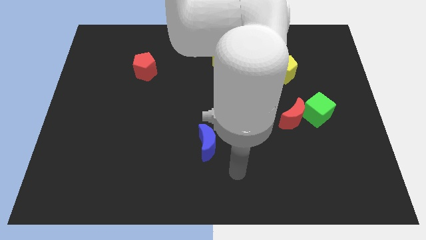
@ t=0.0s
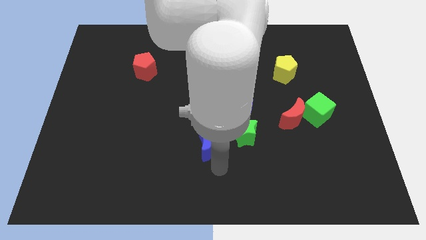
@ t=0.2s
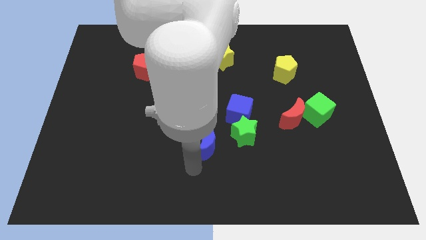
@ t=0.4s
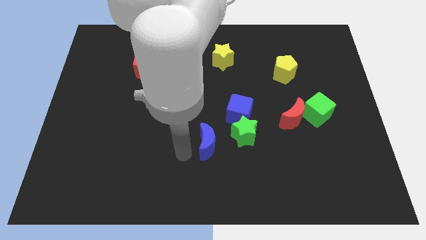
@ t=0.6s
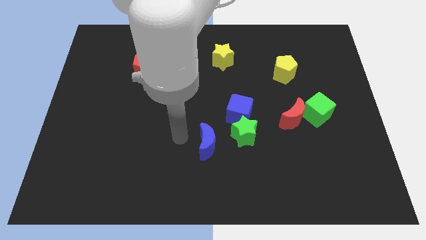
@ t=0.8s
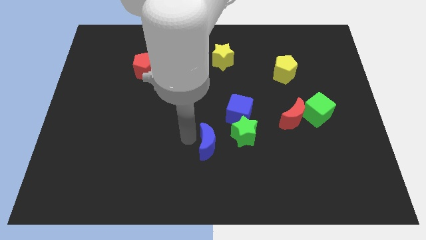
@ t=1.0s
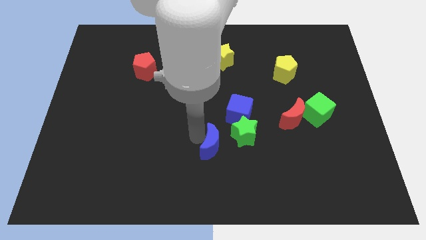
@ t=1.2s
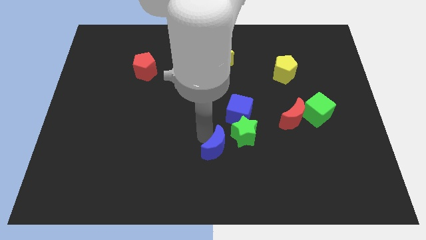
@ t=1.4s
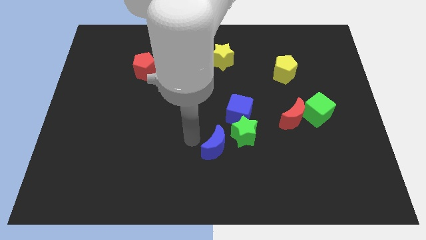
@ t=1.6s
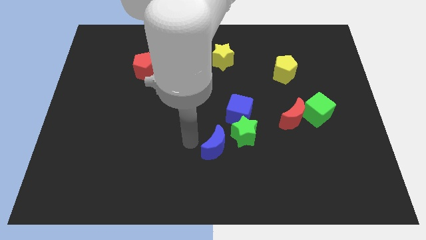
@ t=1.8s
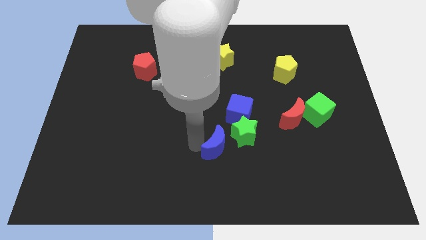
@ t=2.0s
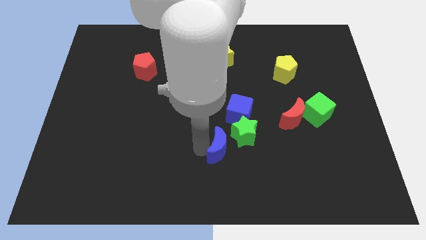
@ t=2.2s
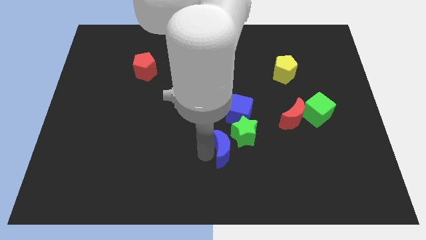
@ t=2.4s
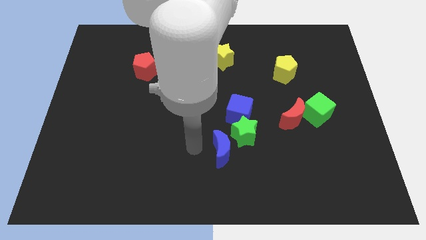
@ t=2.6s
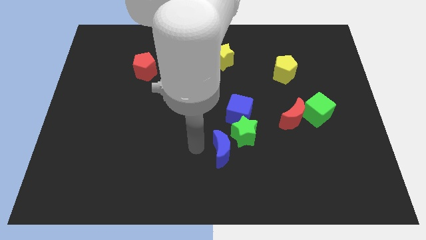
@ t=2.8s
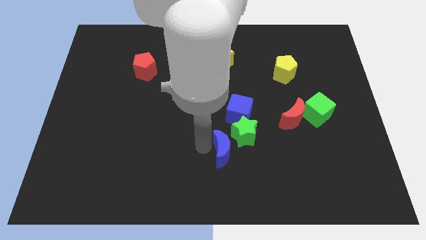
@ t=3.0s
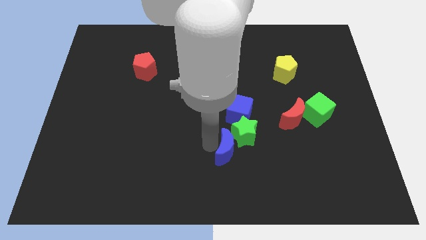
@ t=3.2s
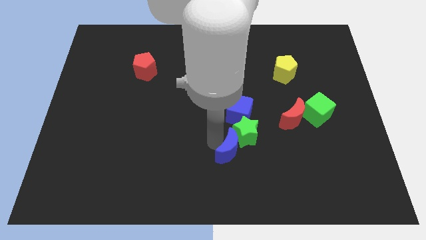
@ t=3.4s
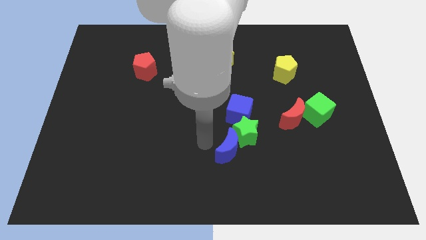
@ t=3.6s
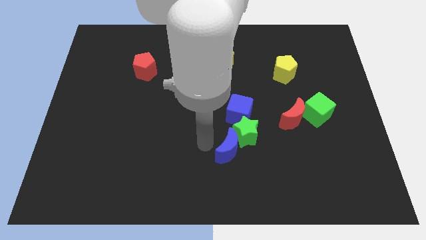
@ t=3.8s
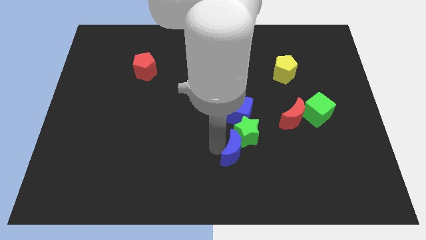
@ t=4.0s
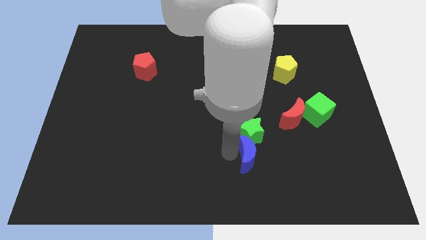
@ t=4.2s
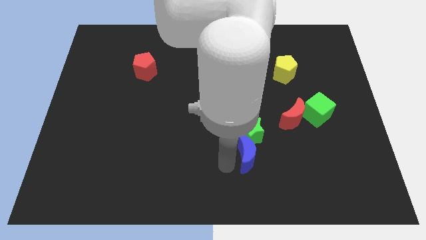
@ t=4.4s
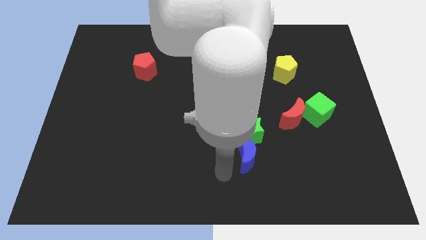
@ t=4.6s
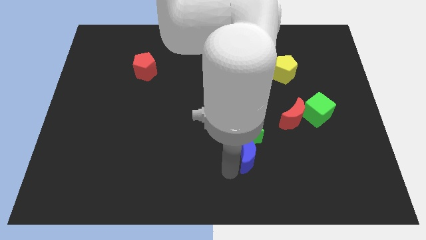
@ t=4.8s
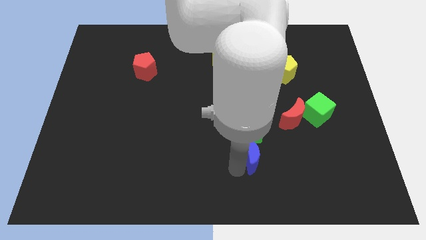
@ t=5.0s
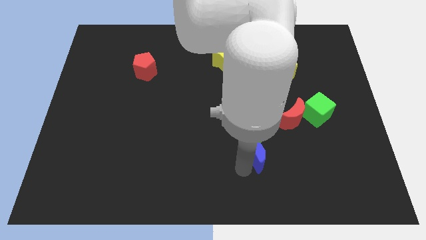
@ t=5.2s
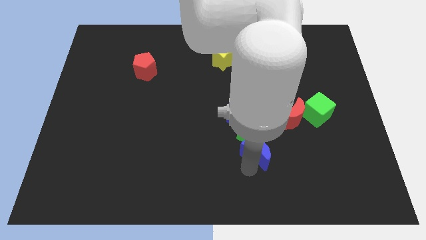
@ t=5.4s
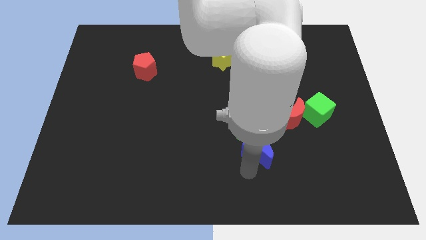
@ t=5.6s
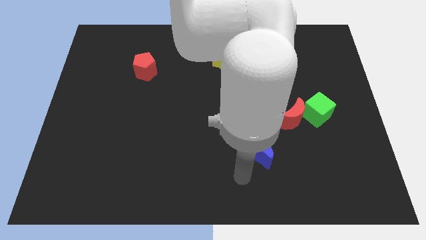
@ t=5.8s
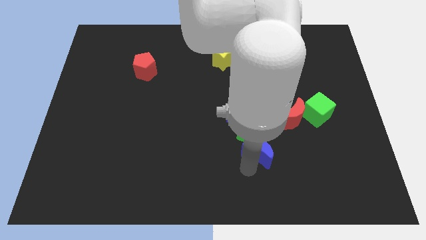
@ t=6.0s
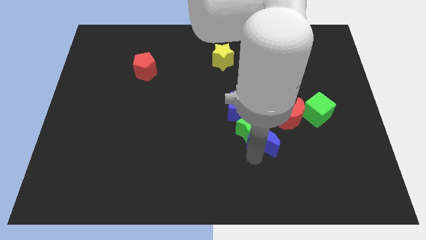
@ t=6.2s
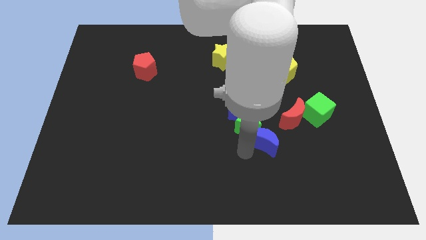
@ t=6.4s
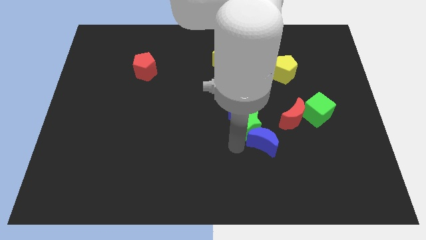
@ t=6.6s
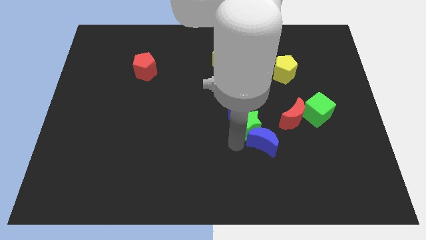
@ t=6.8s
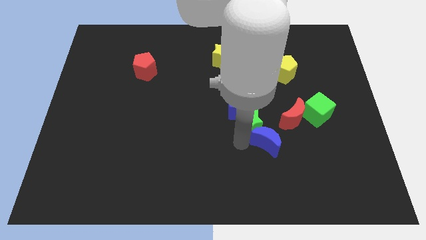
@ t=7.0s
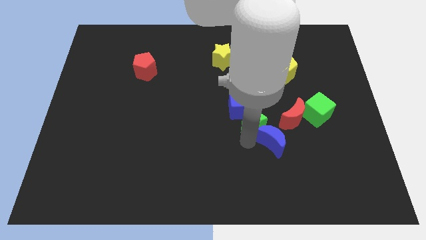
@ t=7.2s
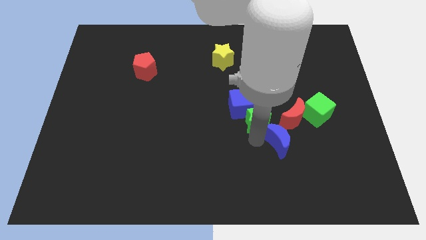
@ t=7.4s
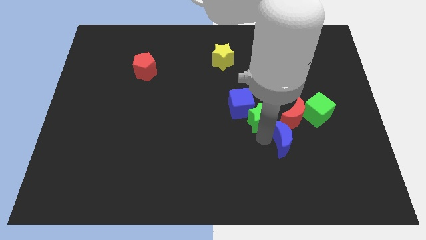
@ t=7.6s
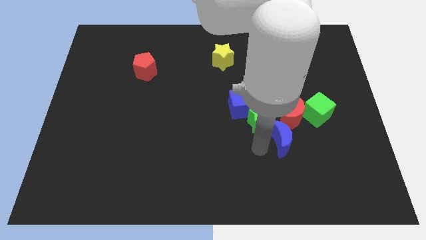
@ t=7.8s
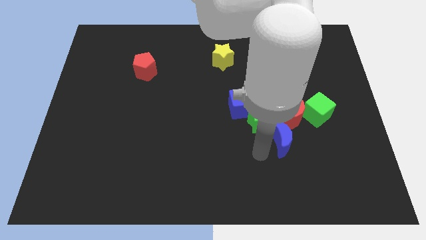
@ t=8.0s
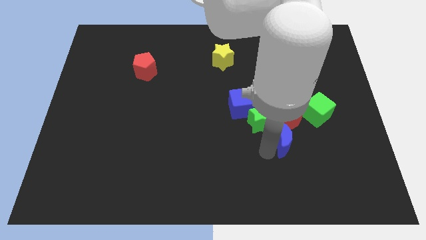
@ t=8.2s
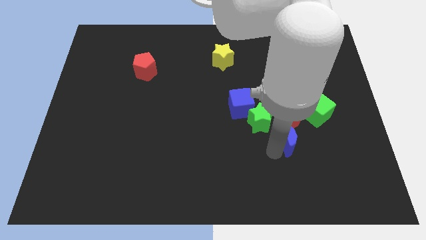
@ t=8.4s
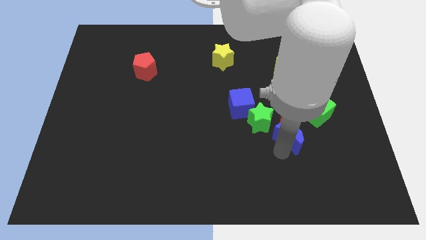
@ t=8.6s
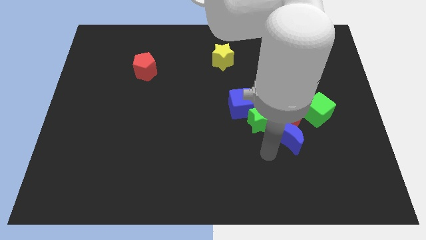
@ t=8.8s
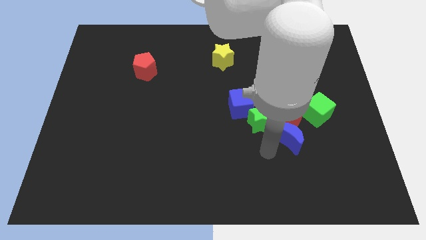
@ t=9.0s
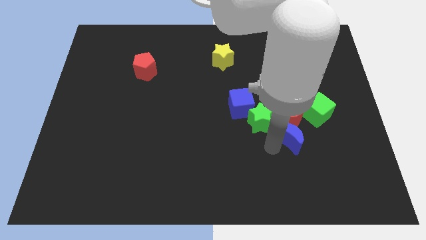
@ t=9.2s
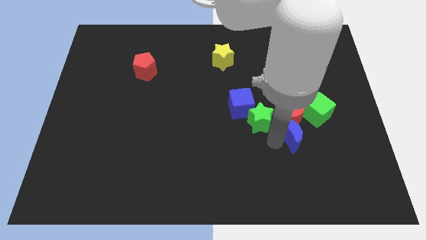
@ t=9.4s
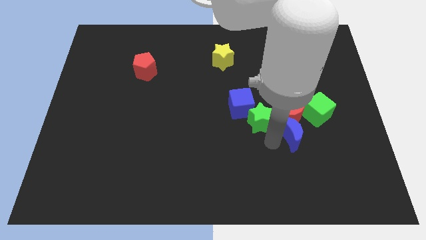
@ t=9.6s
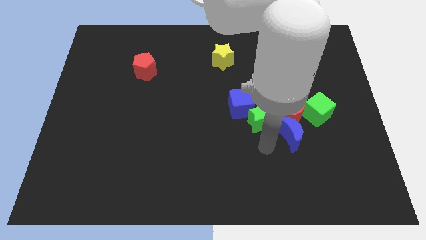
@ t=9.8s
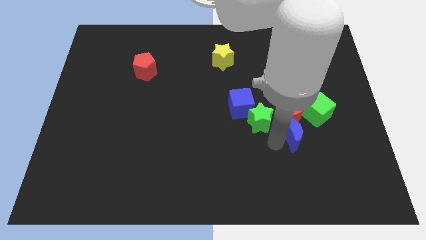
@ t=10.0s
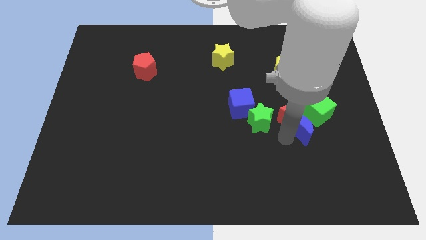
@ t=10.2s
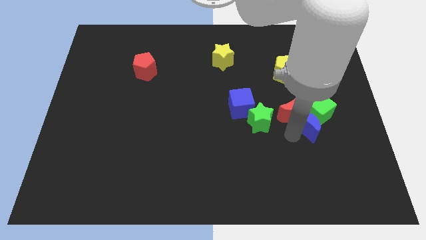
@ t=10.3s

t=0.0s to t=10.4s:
slide the blue moon close to the green cube

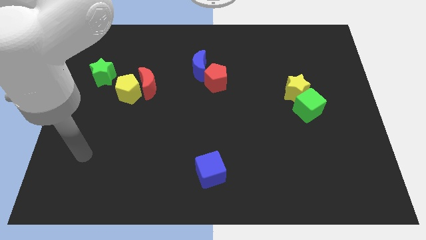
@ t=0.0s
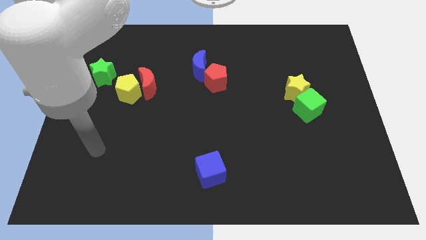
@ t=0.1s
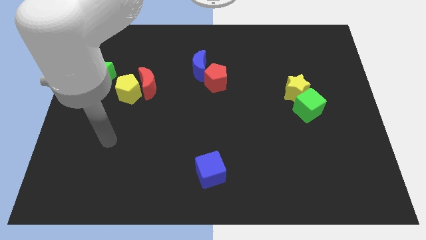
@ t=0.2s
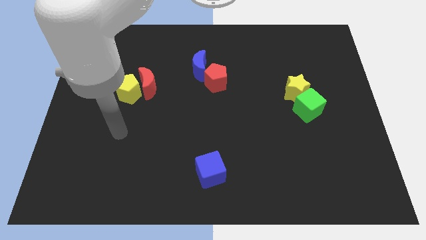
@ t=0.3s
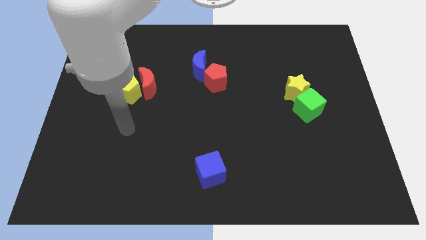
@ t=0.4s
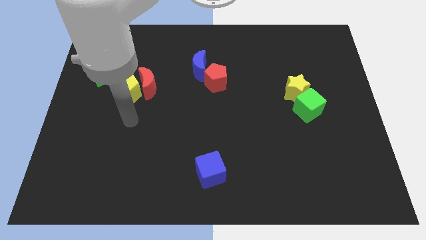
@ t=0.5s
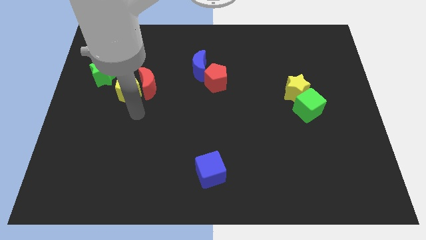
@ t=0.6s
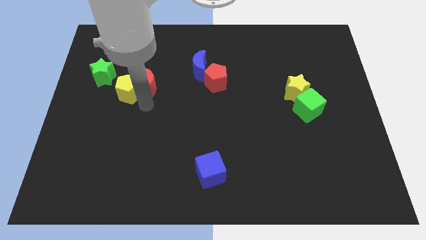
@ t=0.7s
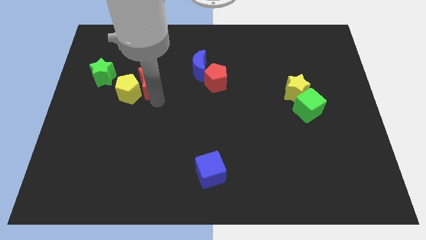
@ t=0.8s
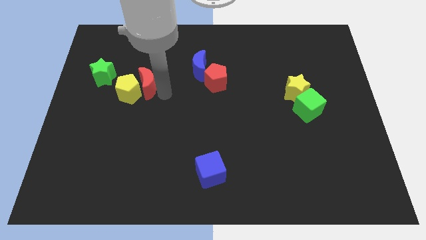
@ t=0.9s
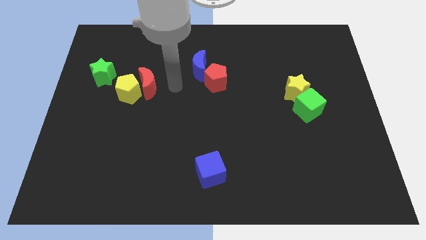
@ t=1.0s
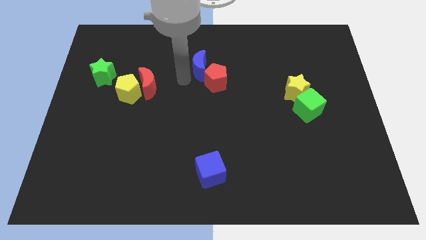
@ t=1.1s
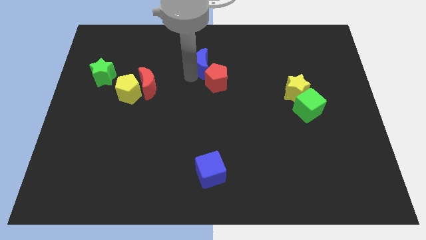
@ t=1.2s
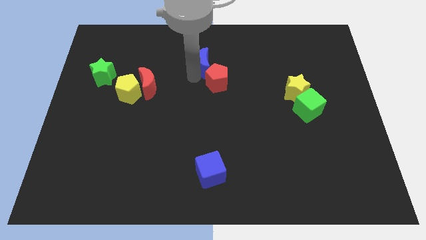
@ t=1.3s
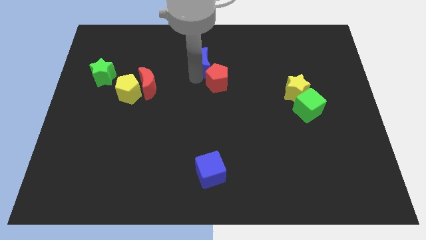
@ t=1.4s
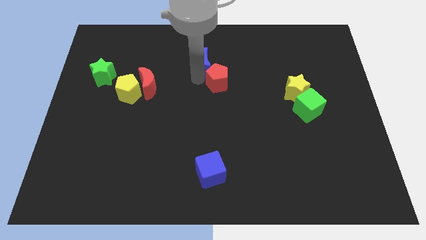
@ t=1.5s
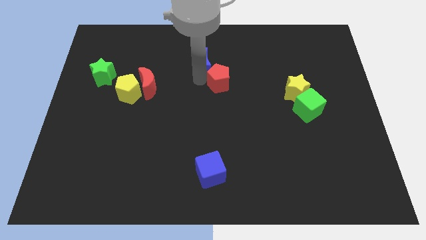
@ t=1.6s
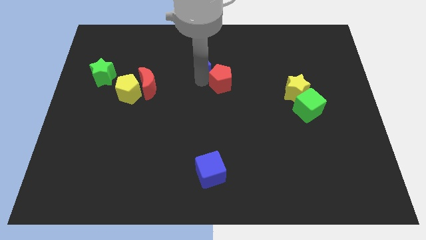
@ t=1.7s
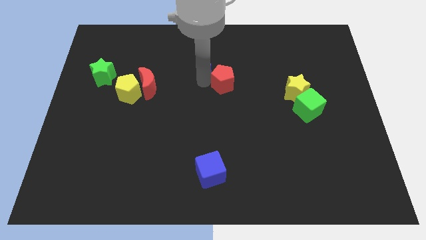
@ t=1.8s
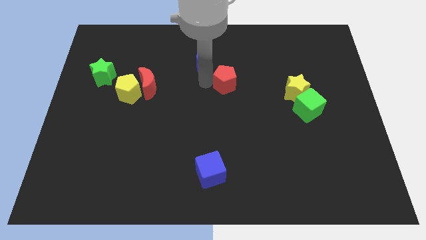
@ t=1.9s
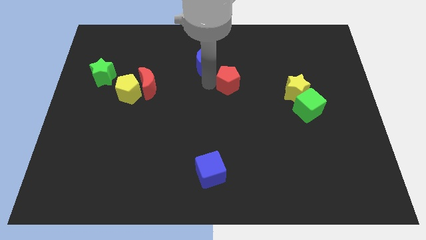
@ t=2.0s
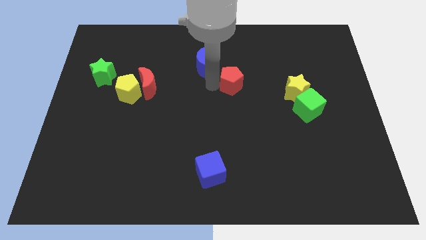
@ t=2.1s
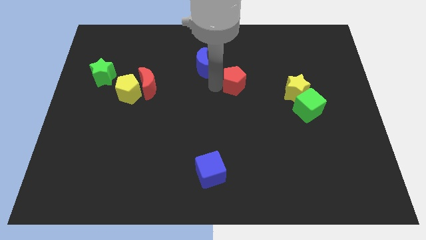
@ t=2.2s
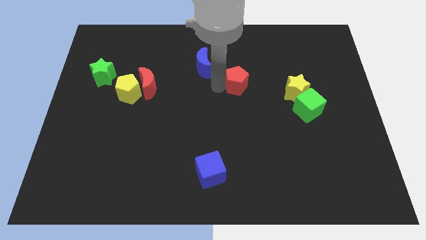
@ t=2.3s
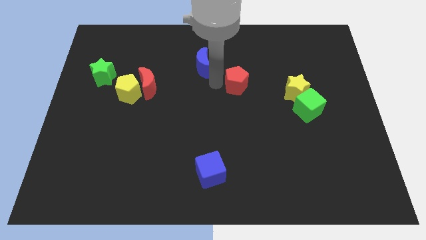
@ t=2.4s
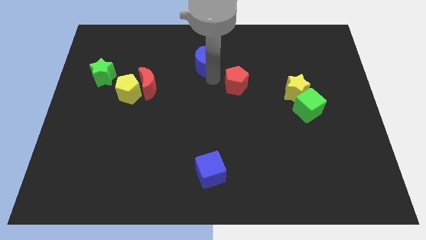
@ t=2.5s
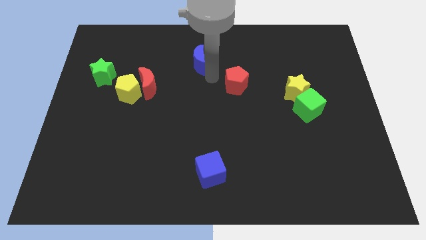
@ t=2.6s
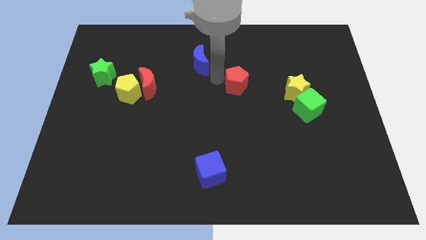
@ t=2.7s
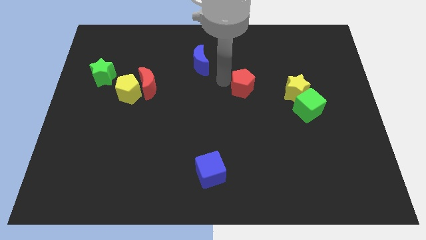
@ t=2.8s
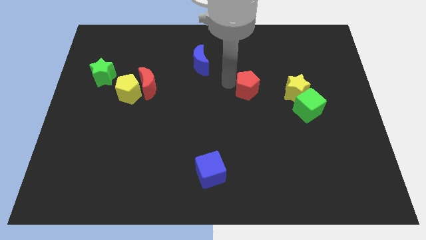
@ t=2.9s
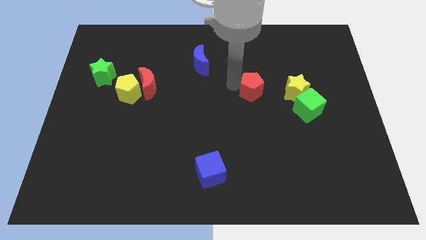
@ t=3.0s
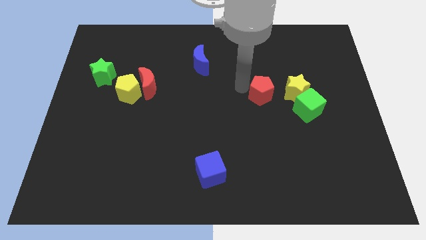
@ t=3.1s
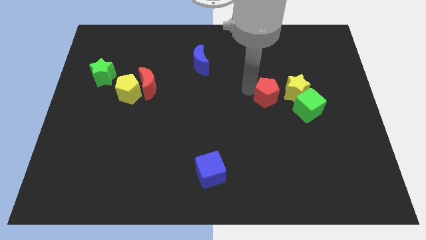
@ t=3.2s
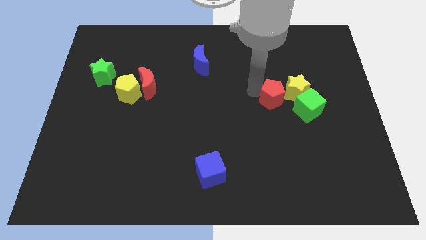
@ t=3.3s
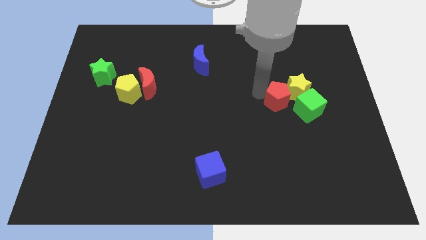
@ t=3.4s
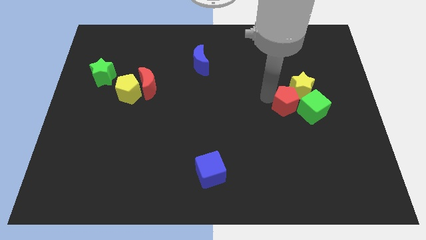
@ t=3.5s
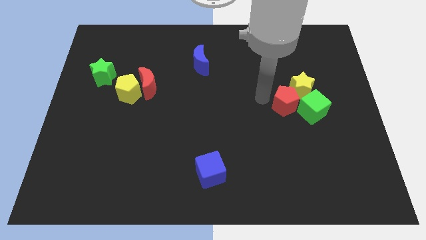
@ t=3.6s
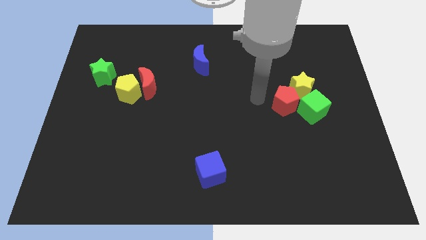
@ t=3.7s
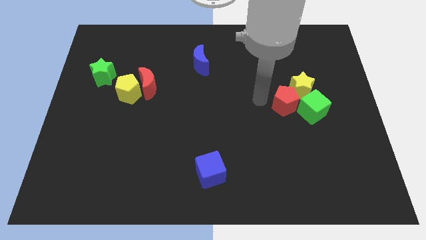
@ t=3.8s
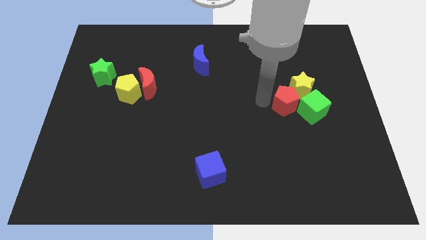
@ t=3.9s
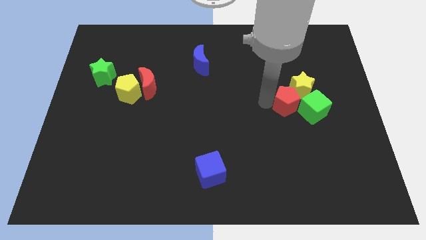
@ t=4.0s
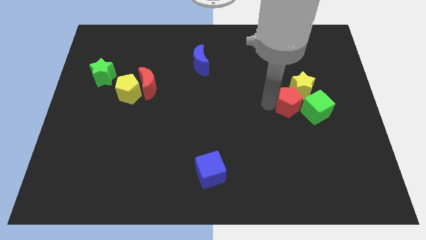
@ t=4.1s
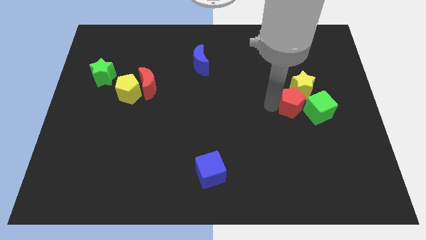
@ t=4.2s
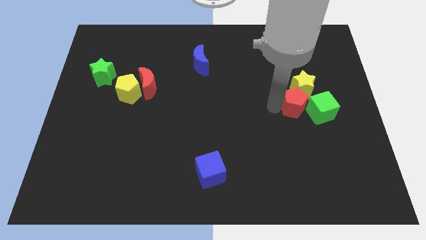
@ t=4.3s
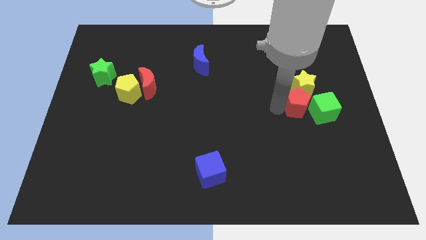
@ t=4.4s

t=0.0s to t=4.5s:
slide the red pentagon close to the green cube
